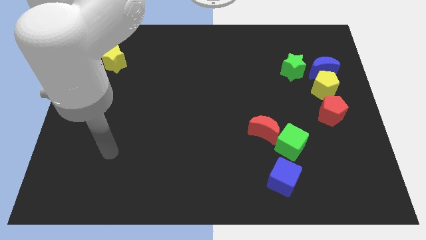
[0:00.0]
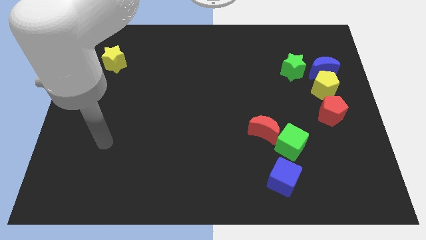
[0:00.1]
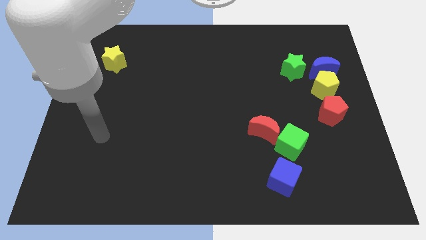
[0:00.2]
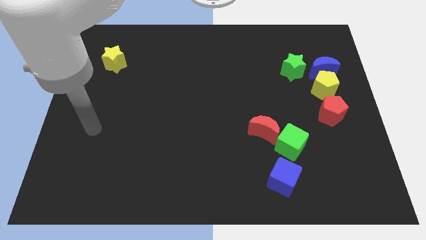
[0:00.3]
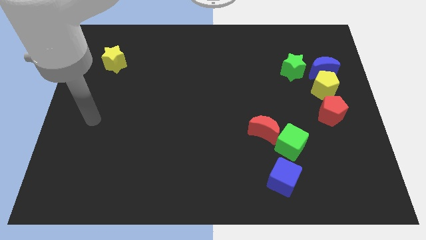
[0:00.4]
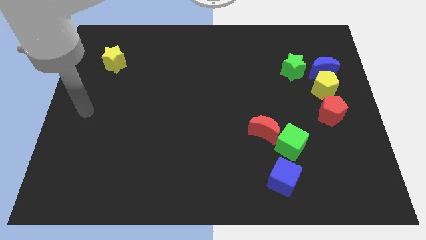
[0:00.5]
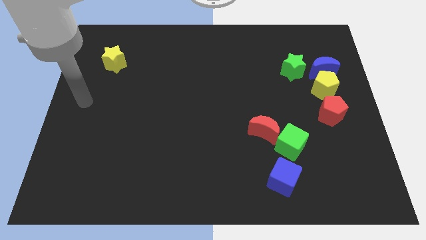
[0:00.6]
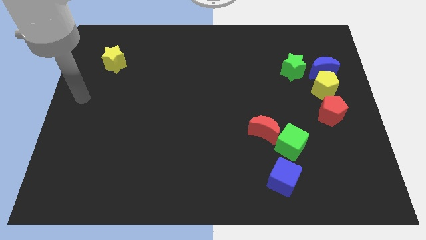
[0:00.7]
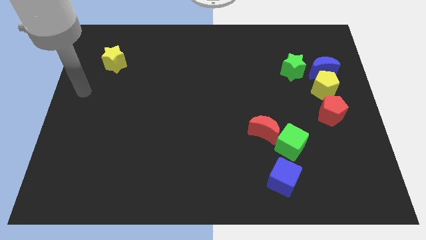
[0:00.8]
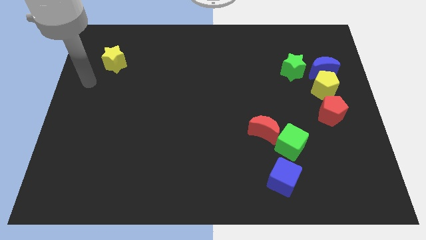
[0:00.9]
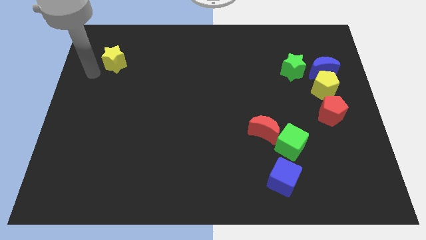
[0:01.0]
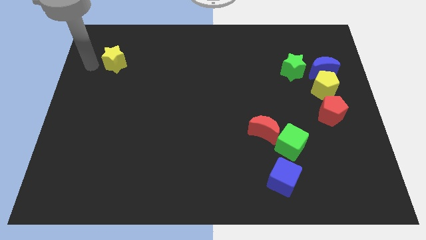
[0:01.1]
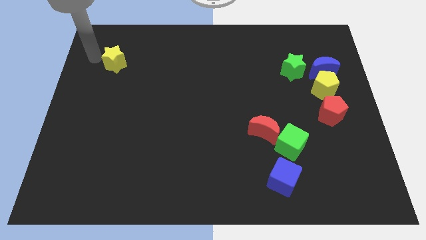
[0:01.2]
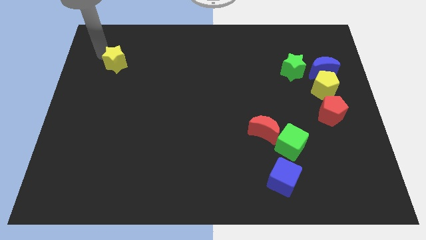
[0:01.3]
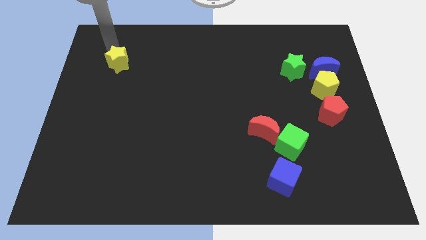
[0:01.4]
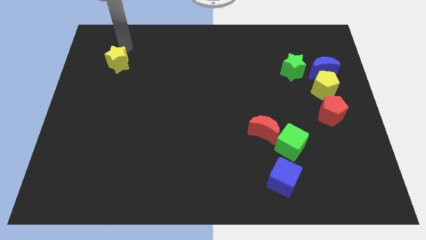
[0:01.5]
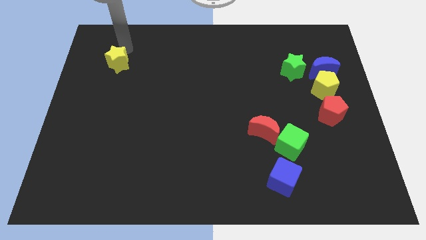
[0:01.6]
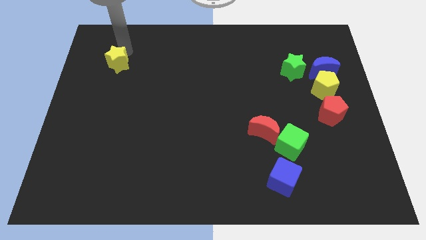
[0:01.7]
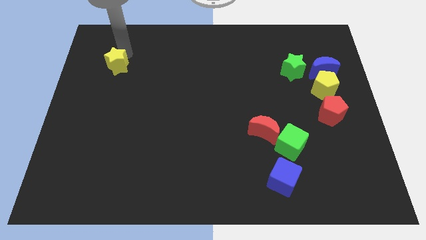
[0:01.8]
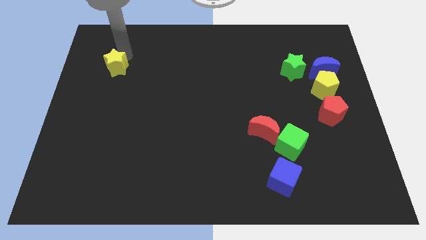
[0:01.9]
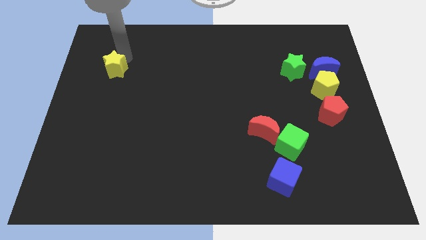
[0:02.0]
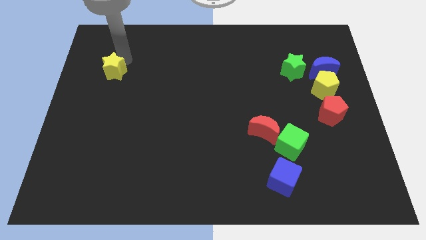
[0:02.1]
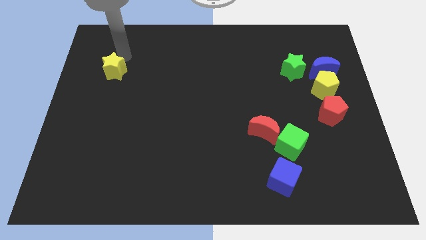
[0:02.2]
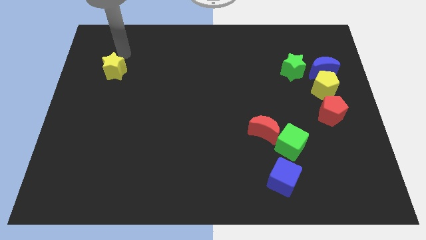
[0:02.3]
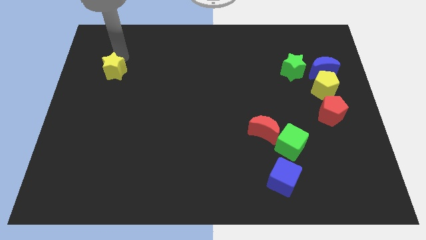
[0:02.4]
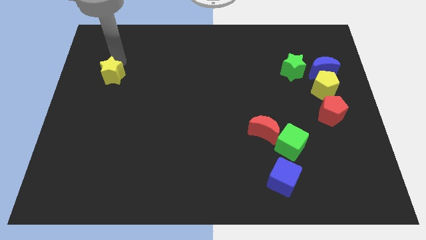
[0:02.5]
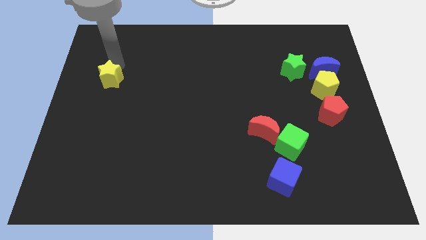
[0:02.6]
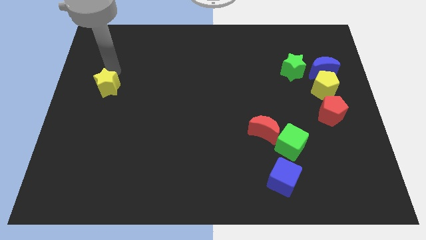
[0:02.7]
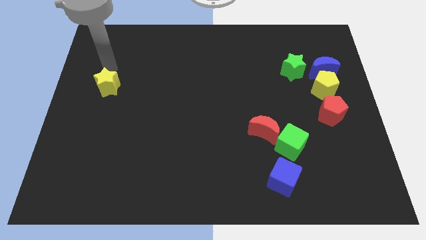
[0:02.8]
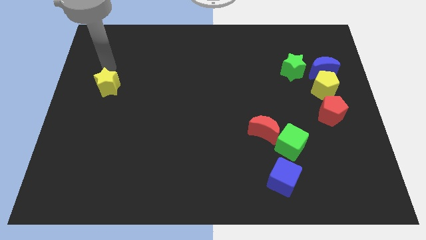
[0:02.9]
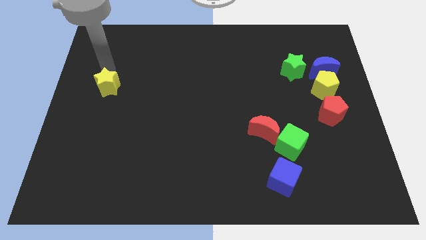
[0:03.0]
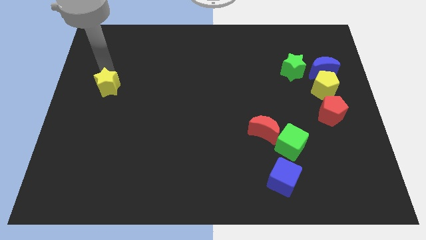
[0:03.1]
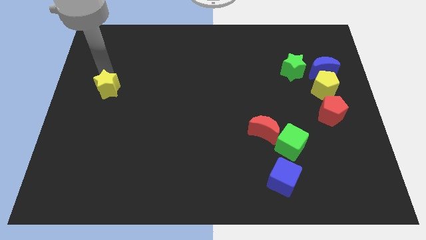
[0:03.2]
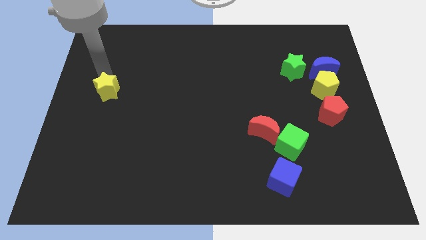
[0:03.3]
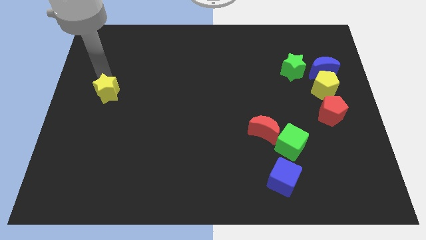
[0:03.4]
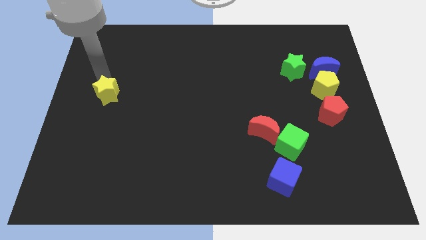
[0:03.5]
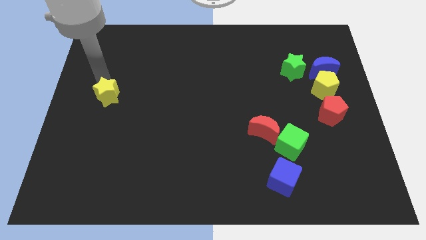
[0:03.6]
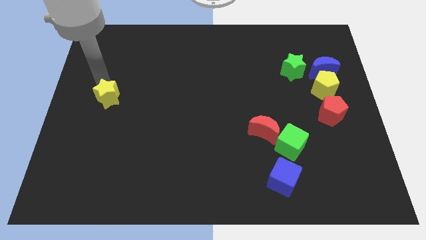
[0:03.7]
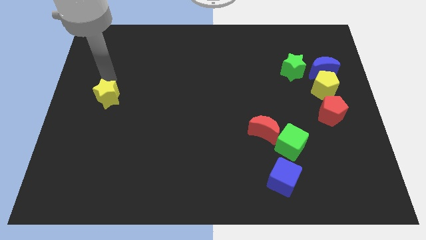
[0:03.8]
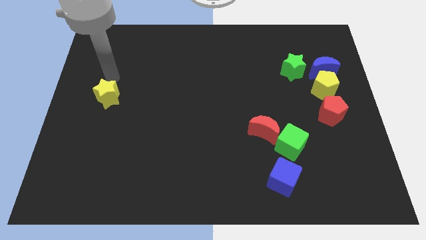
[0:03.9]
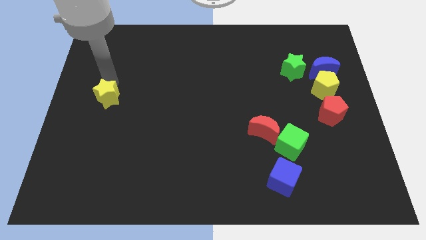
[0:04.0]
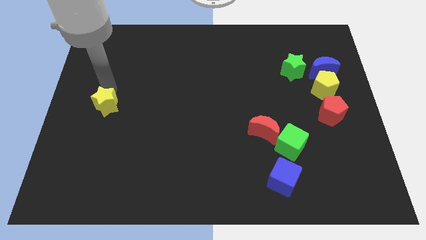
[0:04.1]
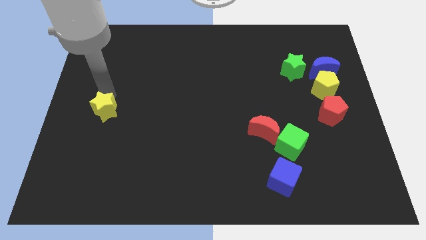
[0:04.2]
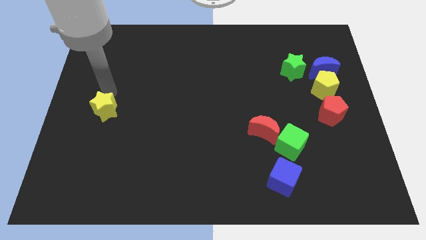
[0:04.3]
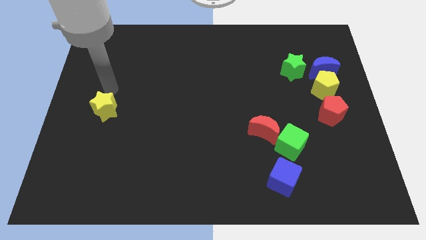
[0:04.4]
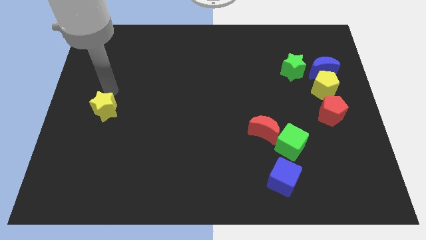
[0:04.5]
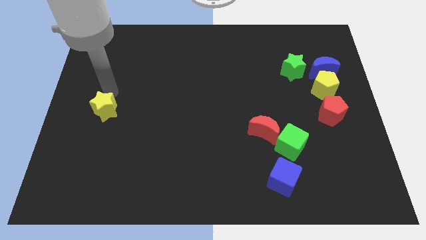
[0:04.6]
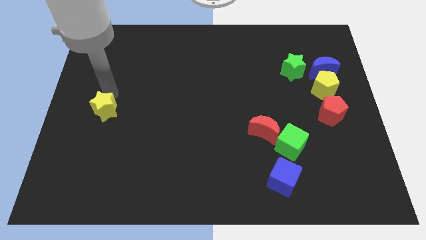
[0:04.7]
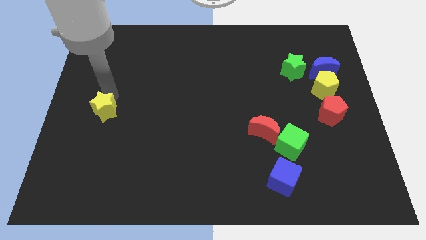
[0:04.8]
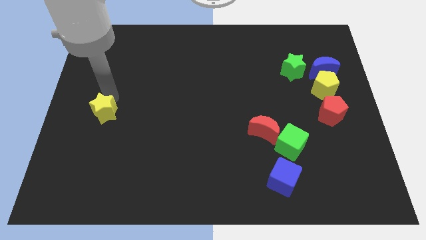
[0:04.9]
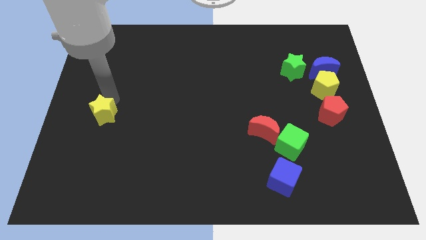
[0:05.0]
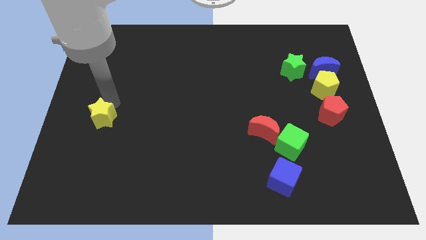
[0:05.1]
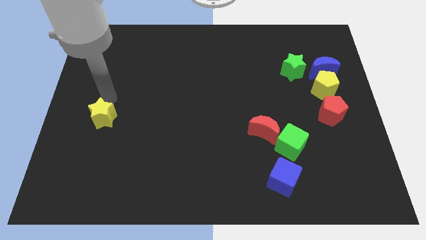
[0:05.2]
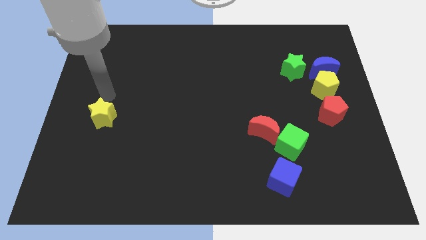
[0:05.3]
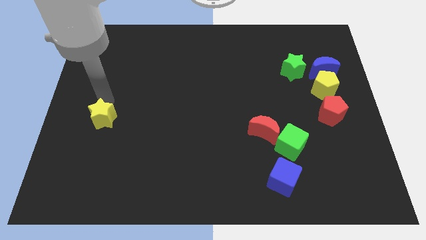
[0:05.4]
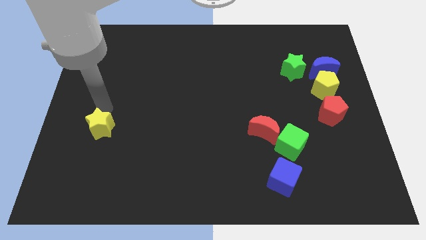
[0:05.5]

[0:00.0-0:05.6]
move the yellow star down

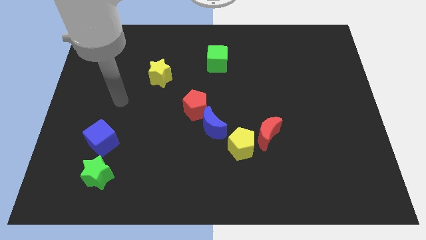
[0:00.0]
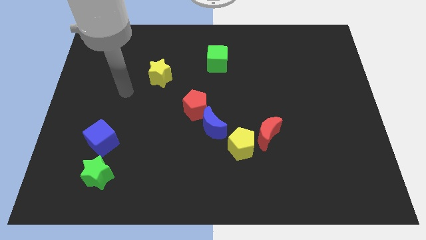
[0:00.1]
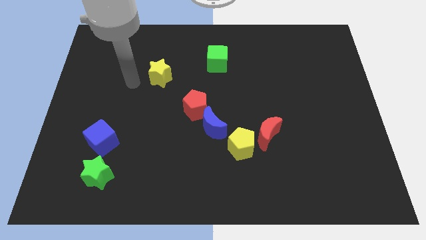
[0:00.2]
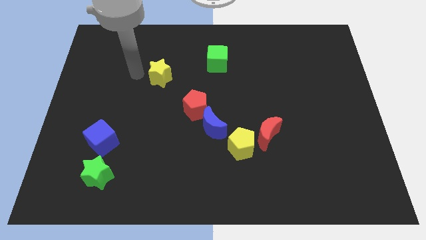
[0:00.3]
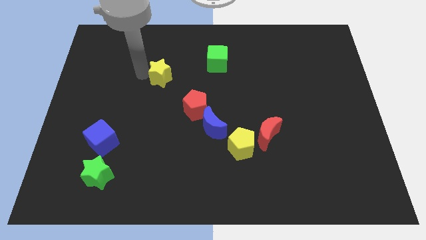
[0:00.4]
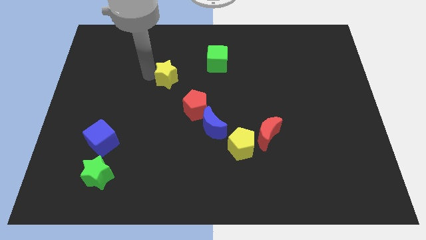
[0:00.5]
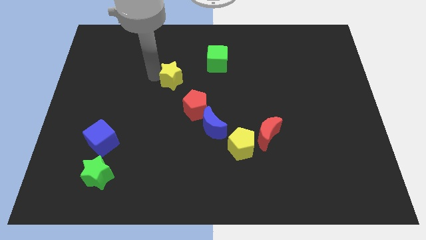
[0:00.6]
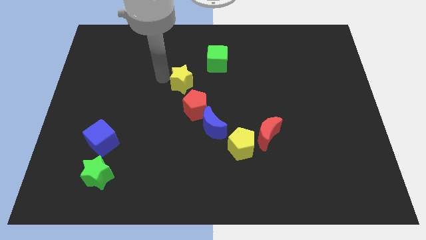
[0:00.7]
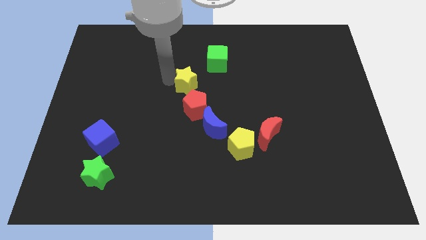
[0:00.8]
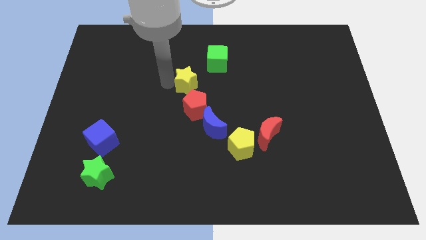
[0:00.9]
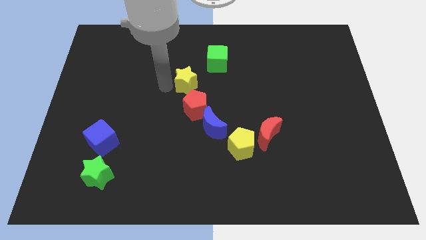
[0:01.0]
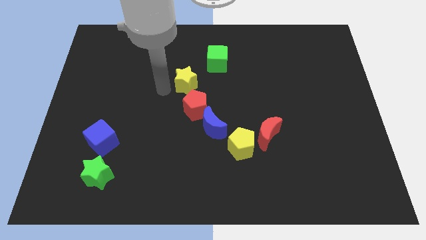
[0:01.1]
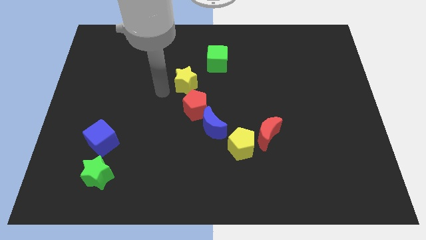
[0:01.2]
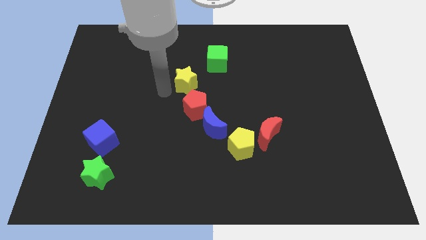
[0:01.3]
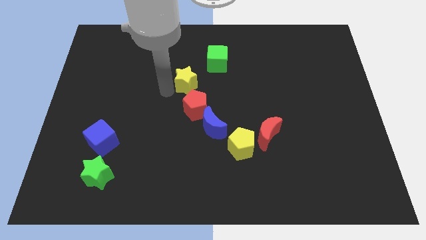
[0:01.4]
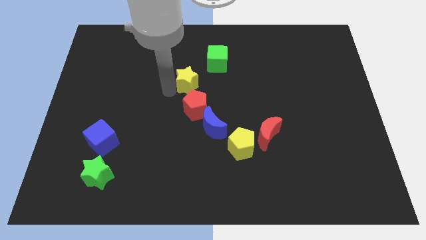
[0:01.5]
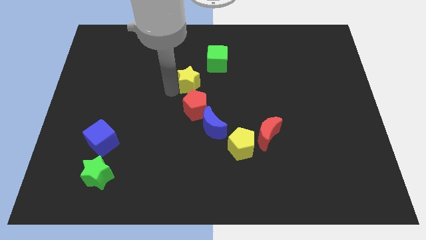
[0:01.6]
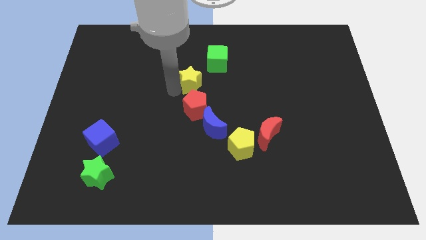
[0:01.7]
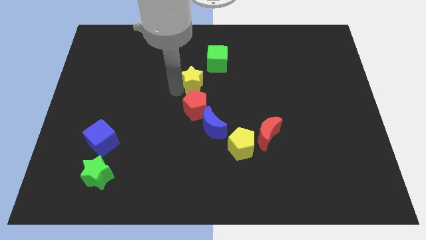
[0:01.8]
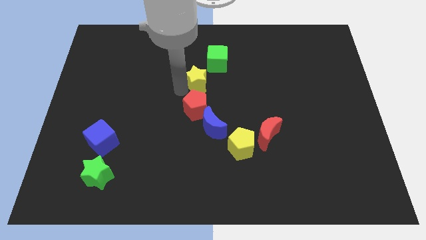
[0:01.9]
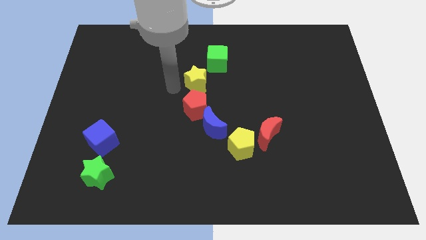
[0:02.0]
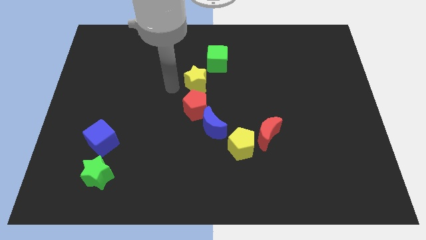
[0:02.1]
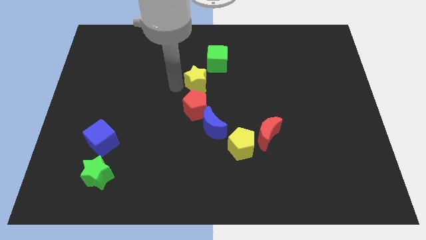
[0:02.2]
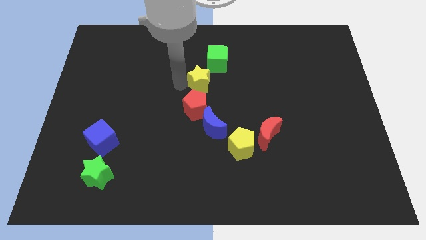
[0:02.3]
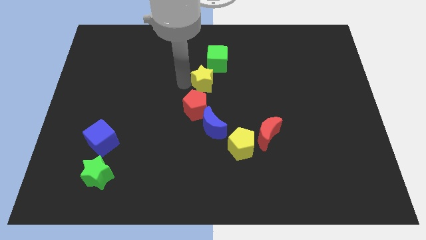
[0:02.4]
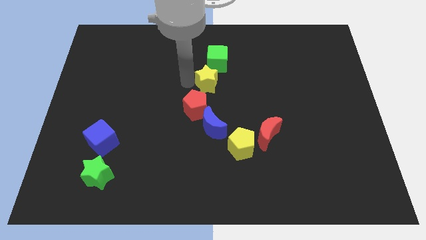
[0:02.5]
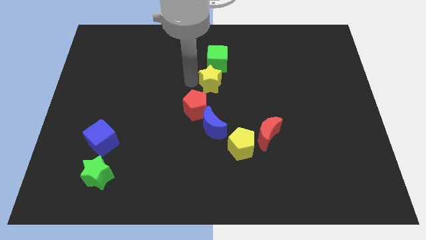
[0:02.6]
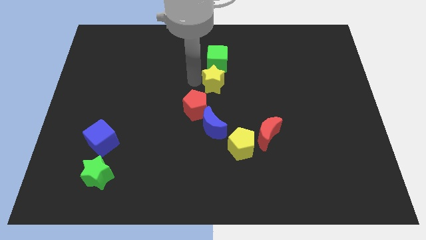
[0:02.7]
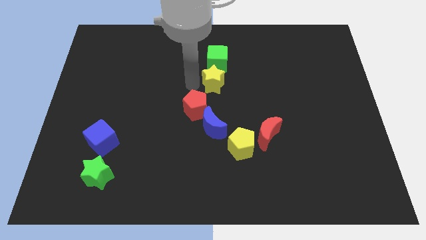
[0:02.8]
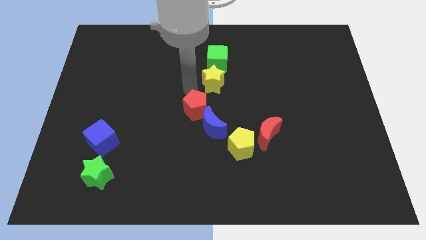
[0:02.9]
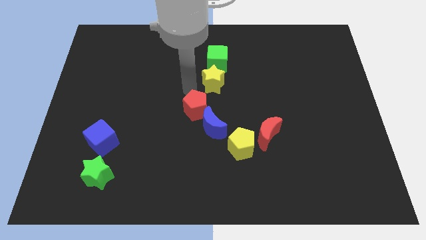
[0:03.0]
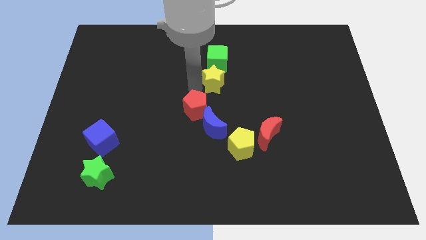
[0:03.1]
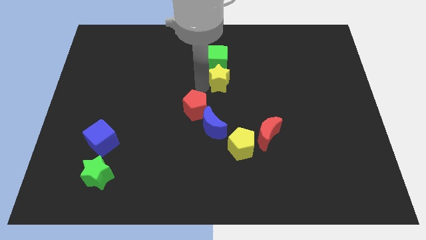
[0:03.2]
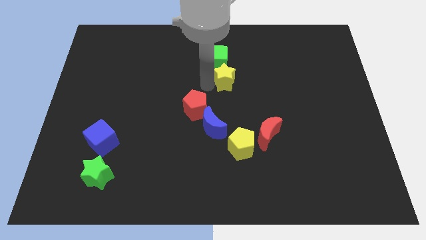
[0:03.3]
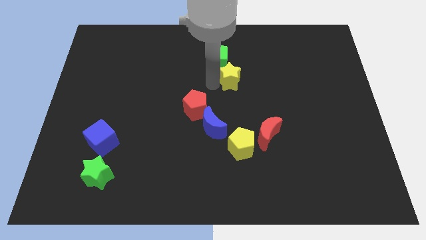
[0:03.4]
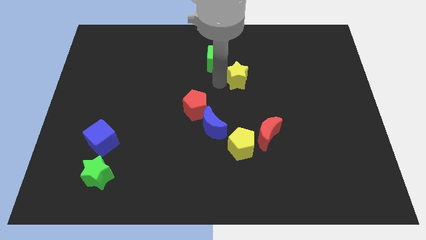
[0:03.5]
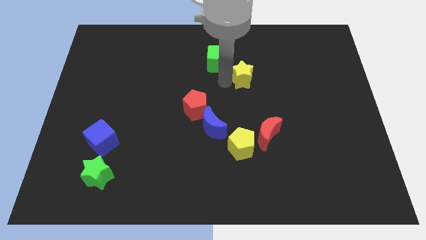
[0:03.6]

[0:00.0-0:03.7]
move the yellow star right
